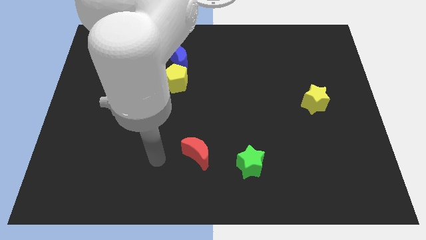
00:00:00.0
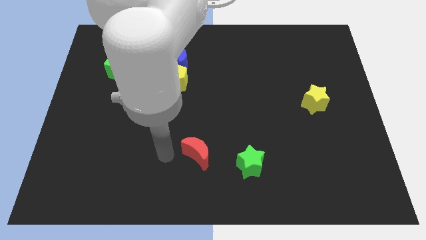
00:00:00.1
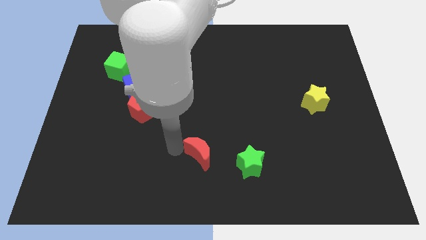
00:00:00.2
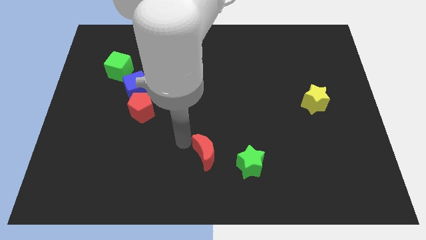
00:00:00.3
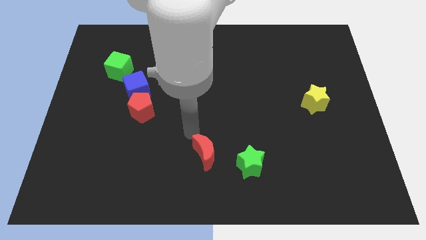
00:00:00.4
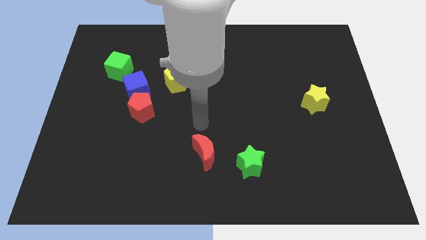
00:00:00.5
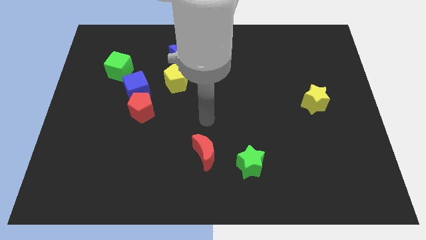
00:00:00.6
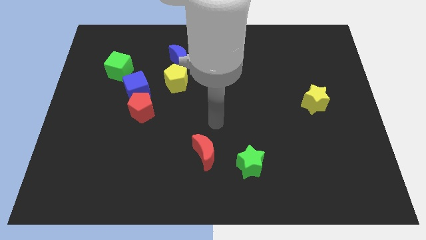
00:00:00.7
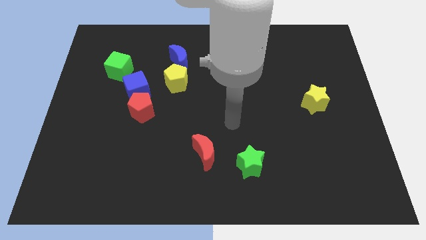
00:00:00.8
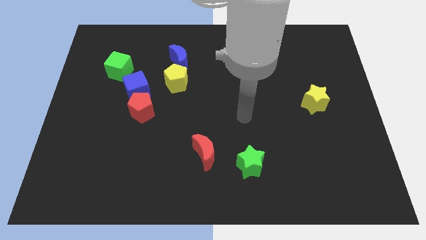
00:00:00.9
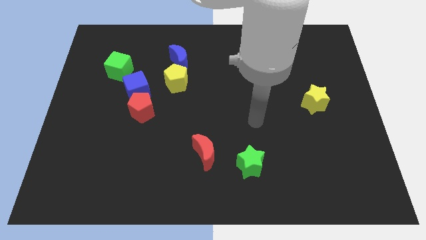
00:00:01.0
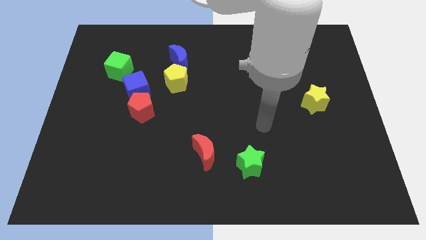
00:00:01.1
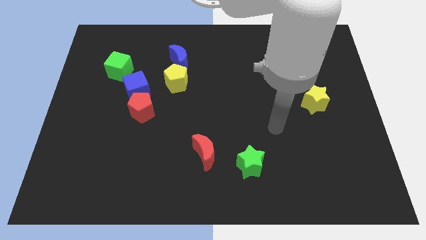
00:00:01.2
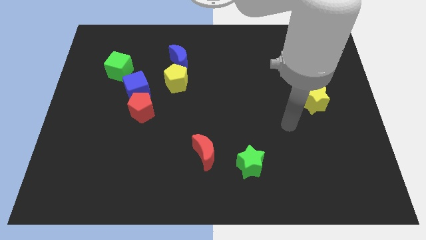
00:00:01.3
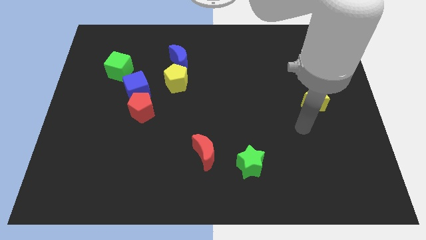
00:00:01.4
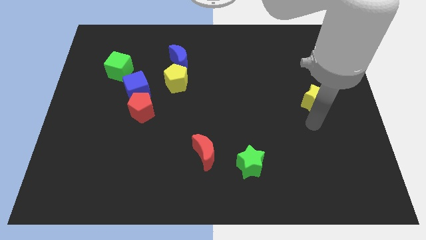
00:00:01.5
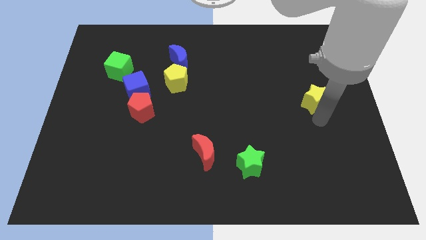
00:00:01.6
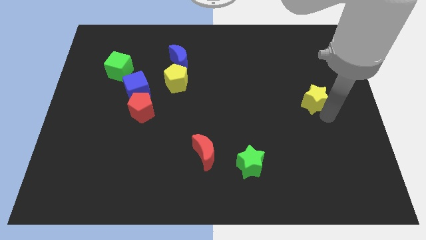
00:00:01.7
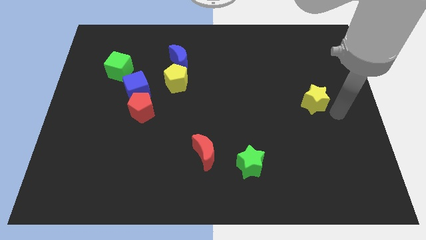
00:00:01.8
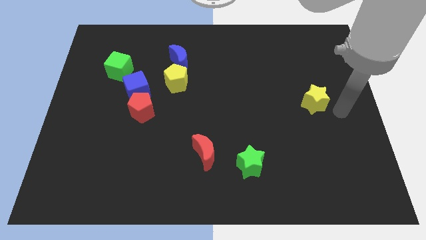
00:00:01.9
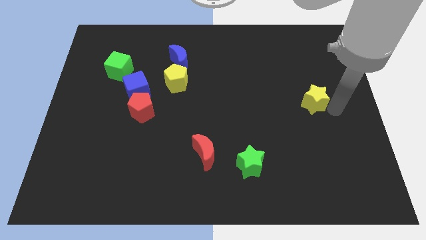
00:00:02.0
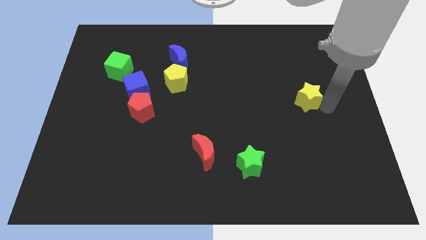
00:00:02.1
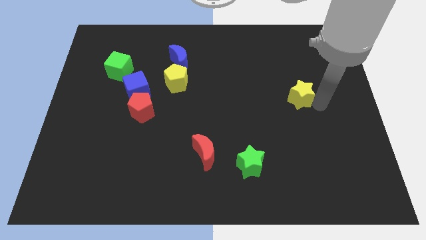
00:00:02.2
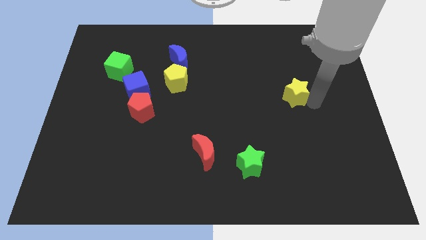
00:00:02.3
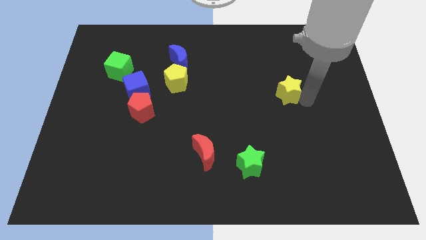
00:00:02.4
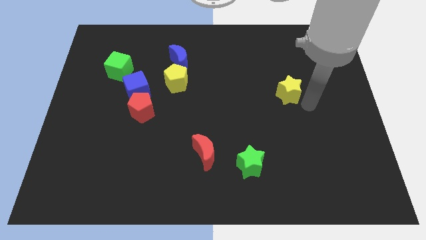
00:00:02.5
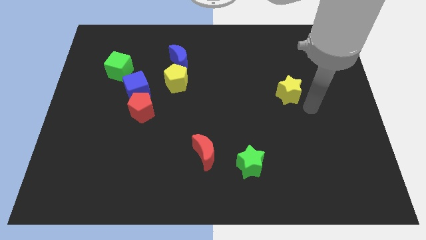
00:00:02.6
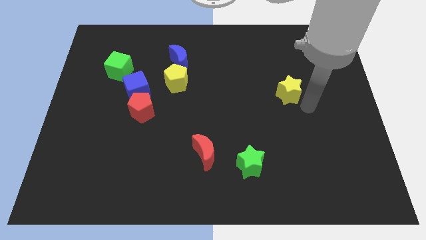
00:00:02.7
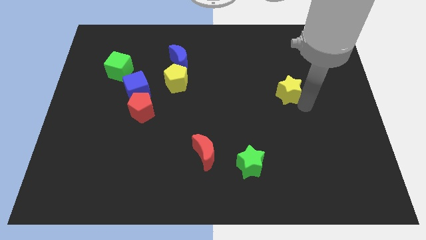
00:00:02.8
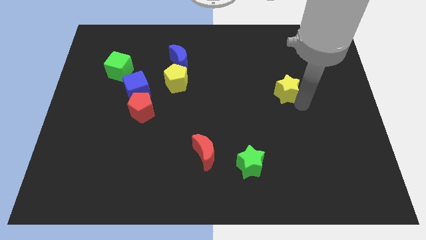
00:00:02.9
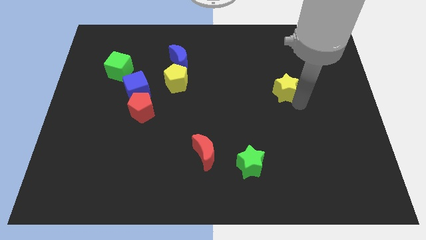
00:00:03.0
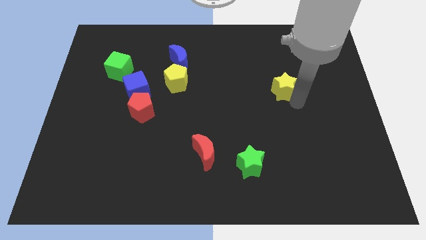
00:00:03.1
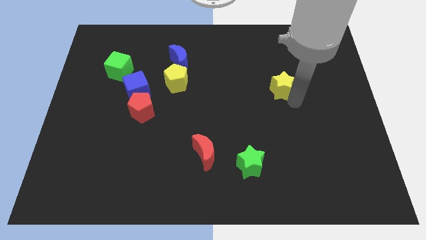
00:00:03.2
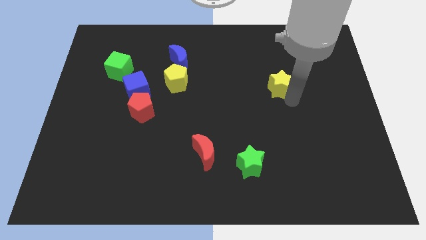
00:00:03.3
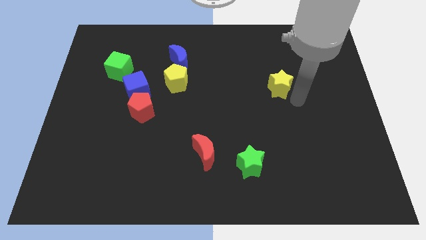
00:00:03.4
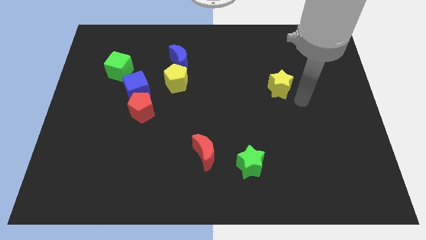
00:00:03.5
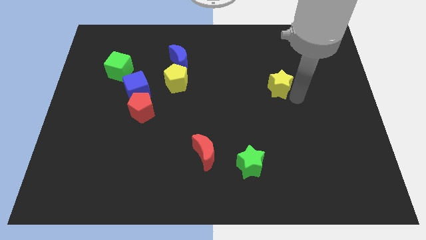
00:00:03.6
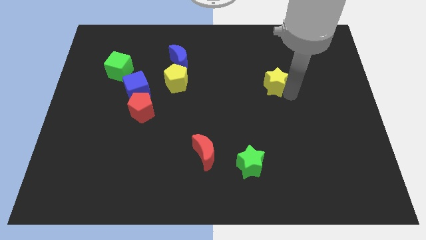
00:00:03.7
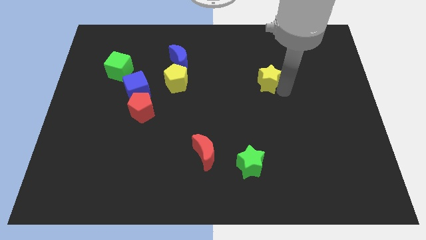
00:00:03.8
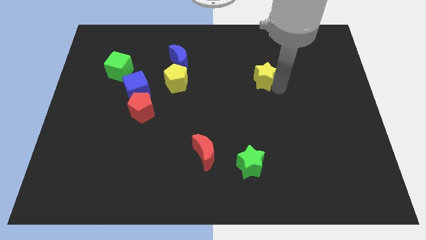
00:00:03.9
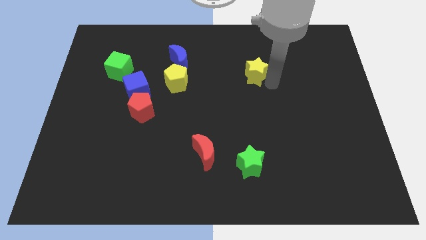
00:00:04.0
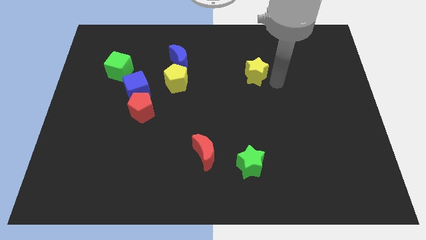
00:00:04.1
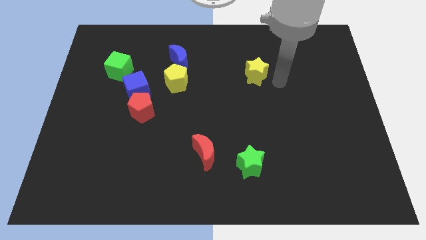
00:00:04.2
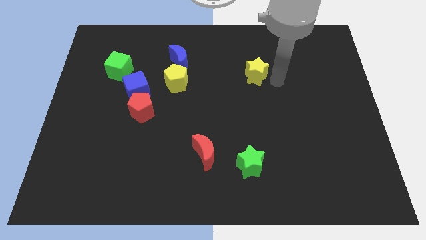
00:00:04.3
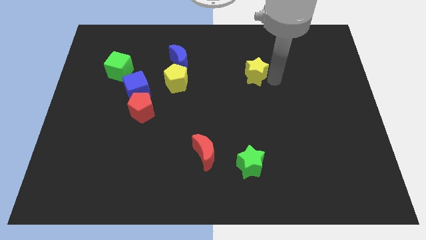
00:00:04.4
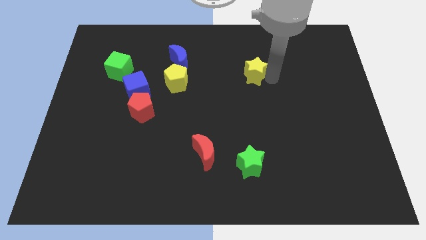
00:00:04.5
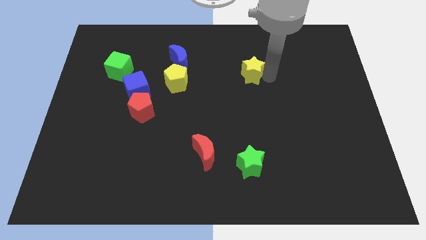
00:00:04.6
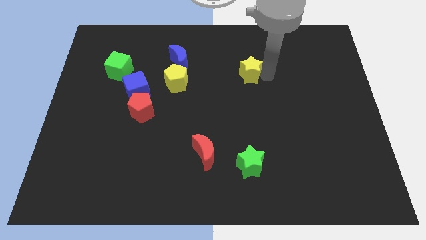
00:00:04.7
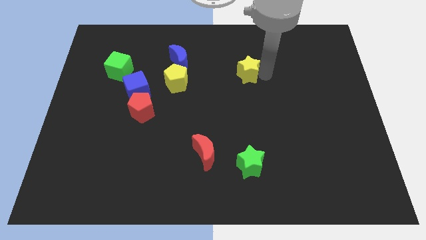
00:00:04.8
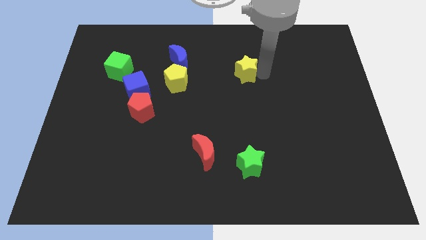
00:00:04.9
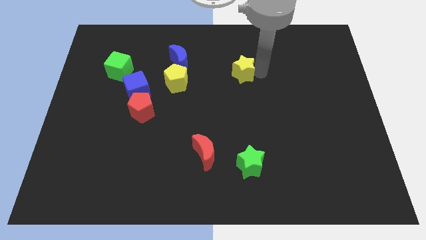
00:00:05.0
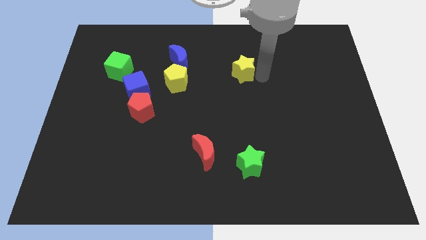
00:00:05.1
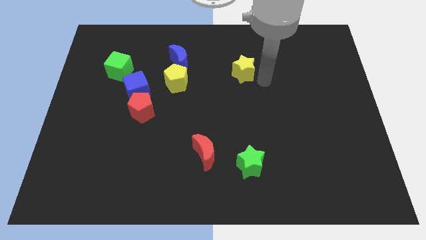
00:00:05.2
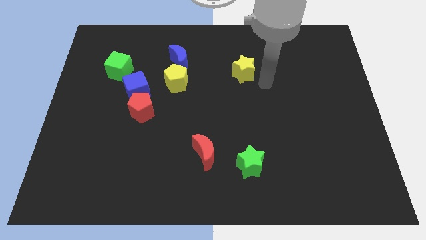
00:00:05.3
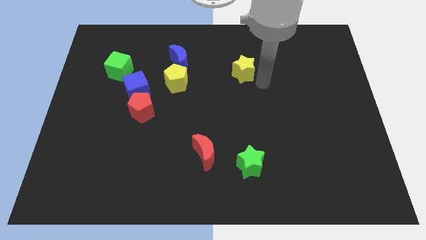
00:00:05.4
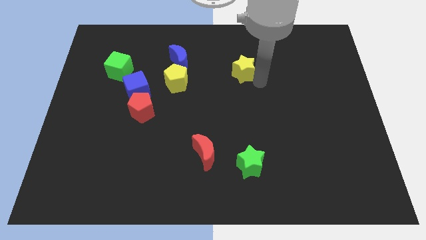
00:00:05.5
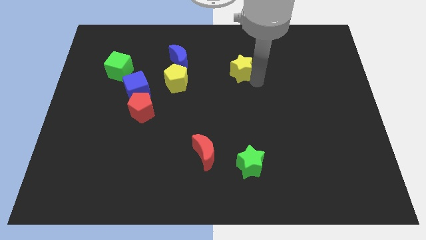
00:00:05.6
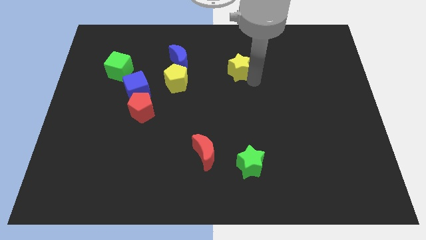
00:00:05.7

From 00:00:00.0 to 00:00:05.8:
slide the yellow star to the right of the blue moon

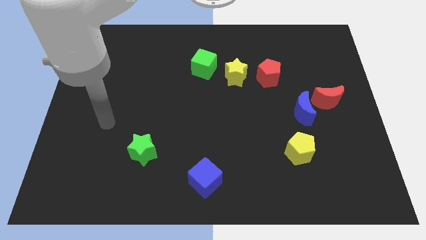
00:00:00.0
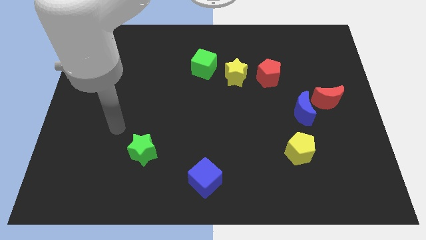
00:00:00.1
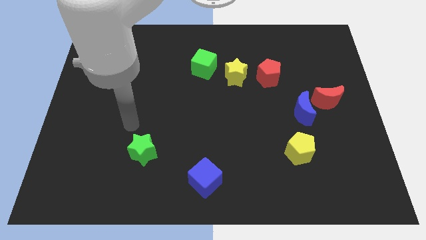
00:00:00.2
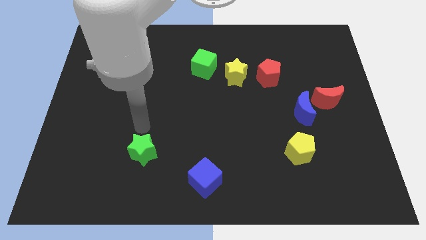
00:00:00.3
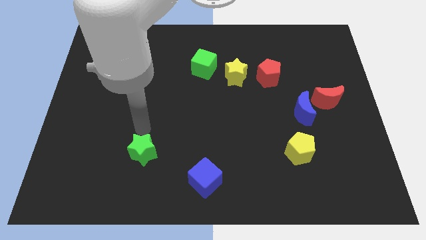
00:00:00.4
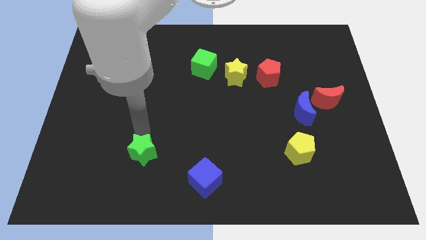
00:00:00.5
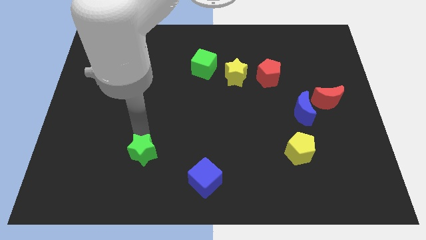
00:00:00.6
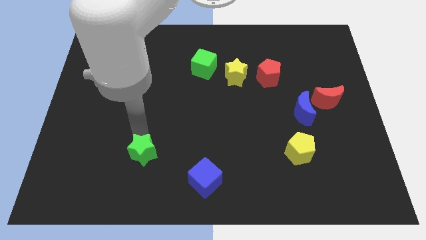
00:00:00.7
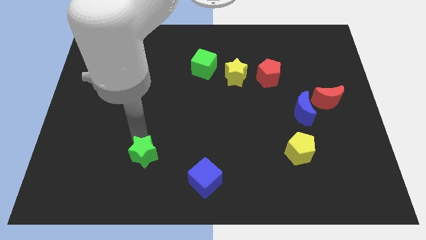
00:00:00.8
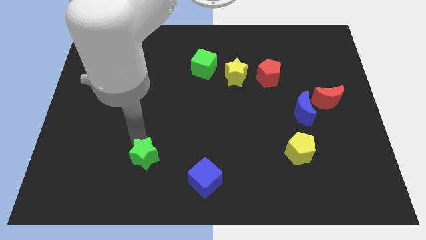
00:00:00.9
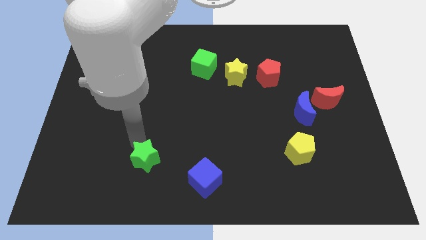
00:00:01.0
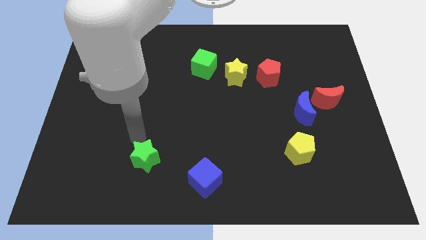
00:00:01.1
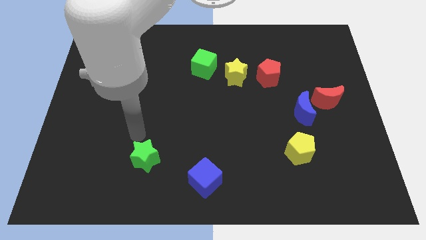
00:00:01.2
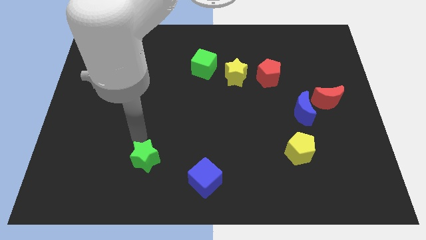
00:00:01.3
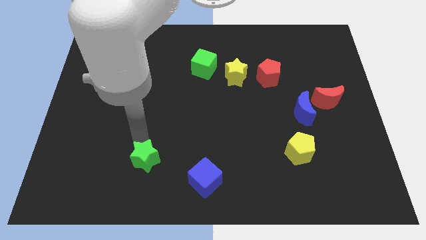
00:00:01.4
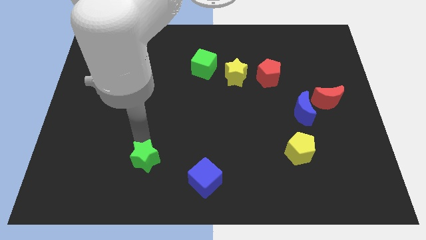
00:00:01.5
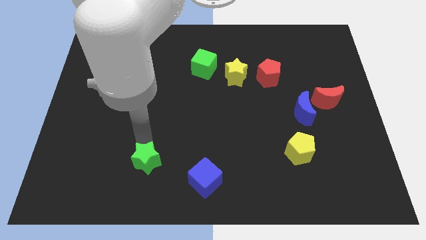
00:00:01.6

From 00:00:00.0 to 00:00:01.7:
push the green star left of the blue cube
